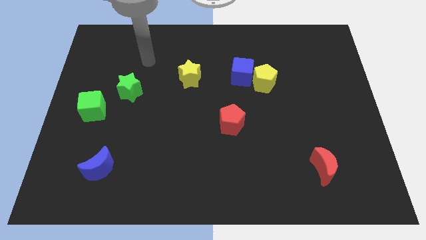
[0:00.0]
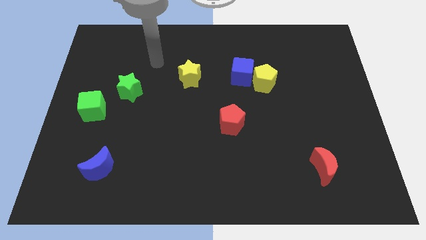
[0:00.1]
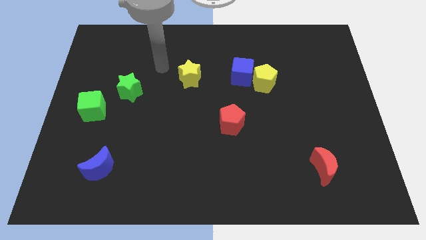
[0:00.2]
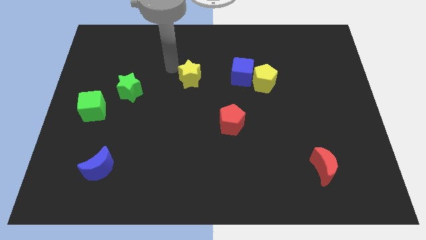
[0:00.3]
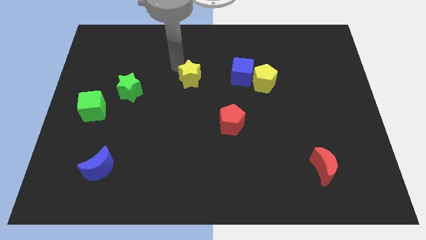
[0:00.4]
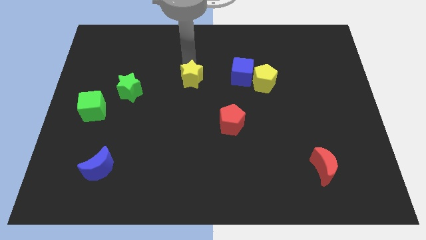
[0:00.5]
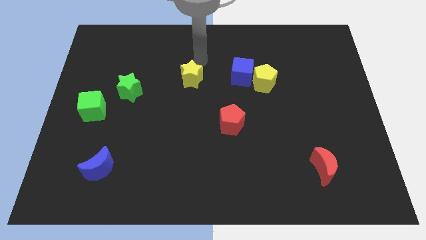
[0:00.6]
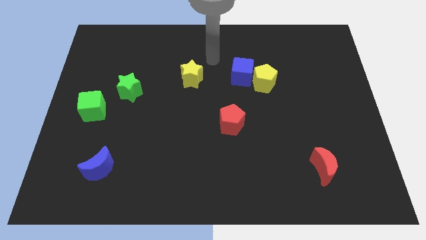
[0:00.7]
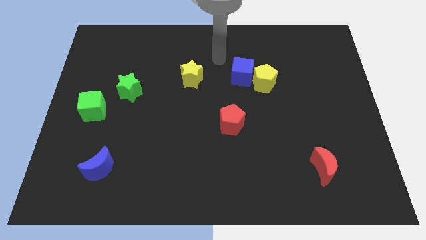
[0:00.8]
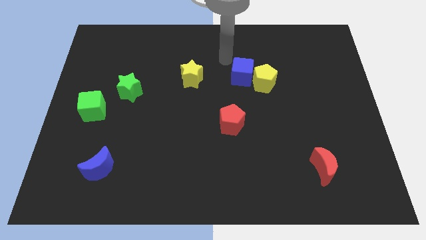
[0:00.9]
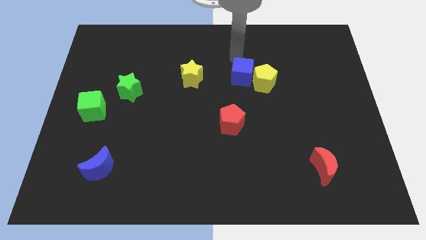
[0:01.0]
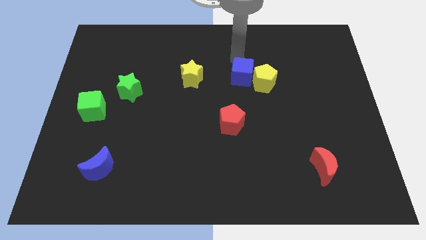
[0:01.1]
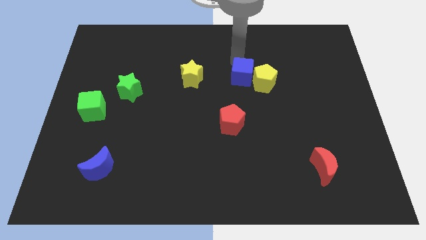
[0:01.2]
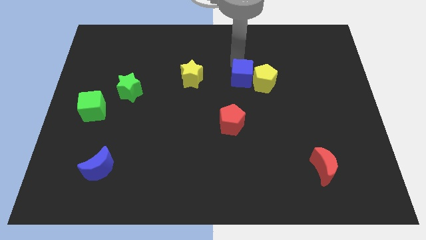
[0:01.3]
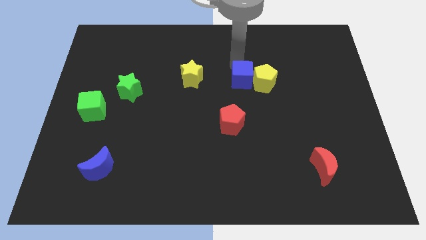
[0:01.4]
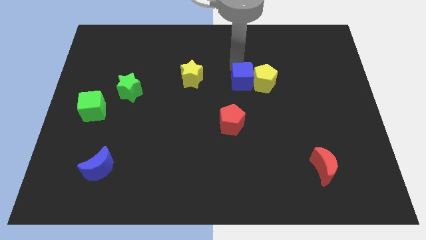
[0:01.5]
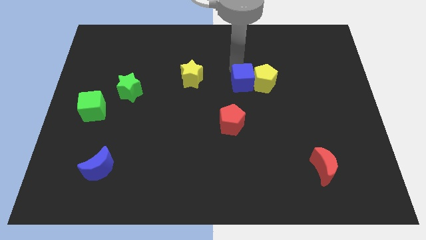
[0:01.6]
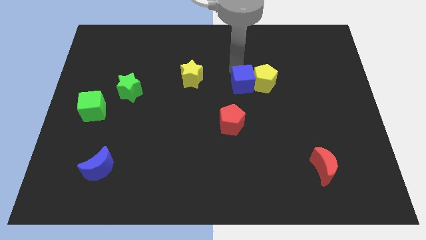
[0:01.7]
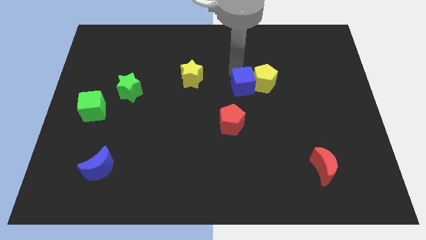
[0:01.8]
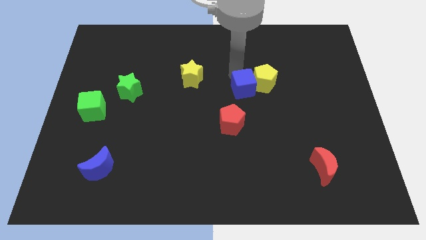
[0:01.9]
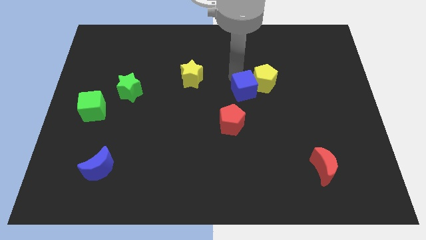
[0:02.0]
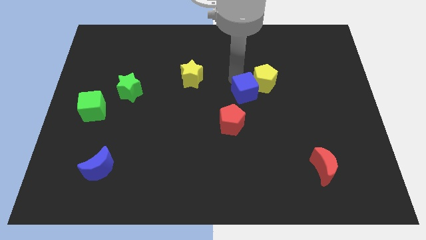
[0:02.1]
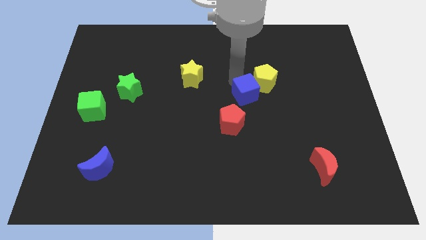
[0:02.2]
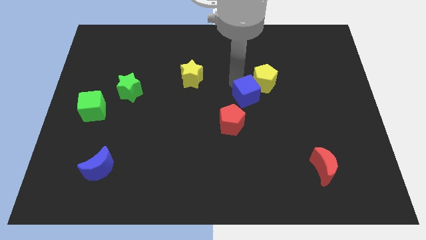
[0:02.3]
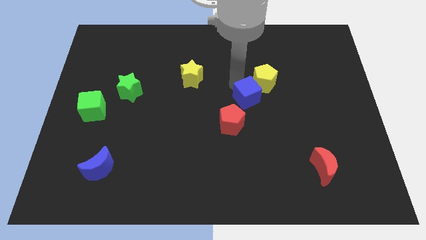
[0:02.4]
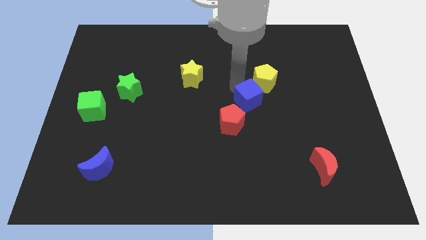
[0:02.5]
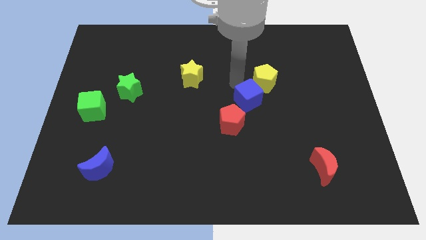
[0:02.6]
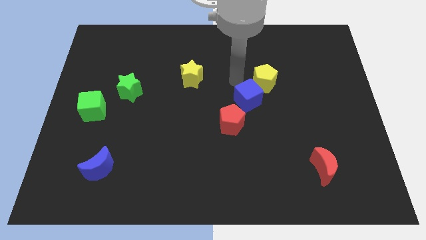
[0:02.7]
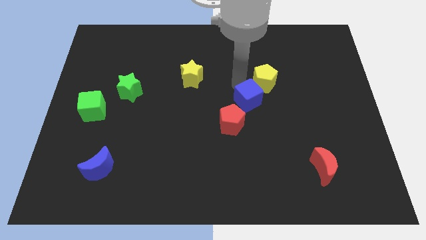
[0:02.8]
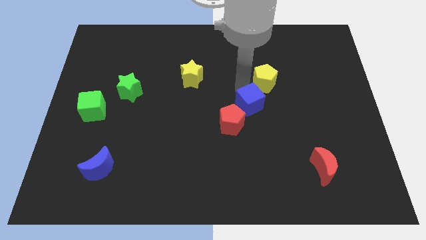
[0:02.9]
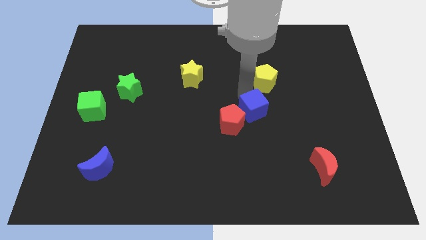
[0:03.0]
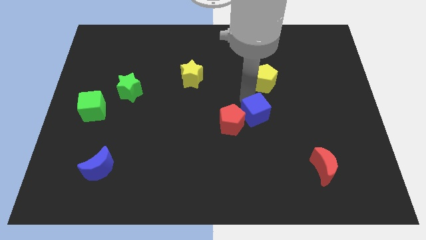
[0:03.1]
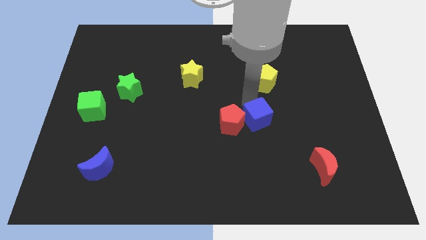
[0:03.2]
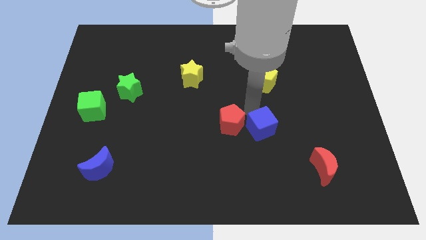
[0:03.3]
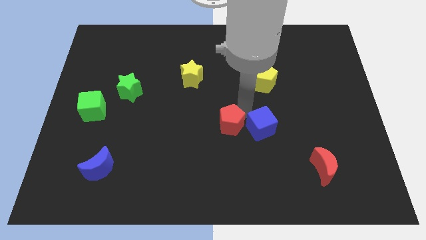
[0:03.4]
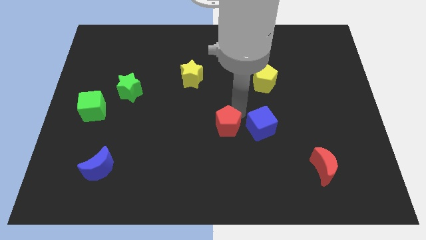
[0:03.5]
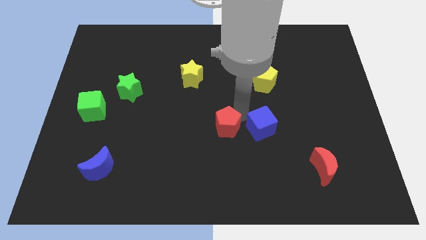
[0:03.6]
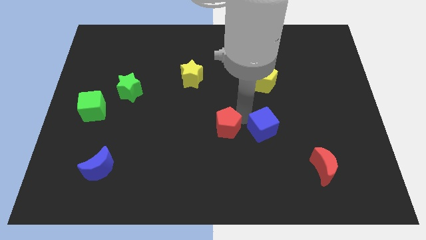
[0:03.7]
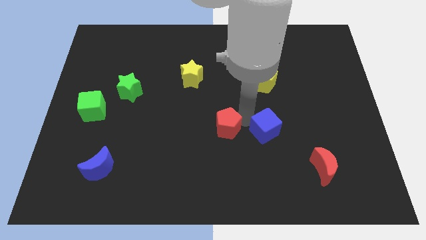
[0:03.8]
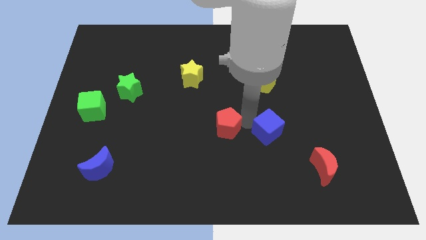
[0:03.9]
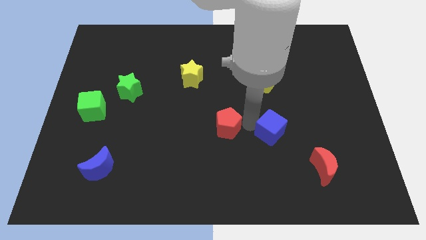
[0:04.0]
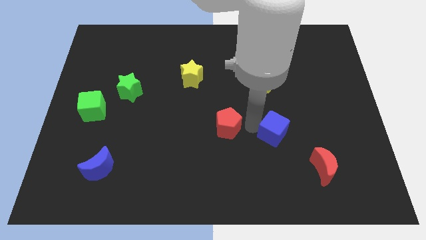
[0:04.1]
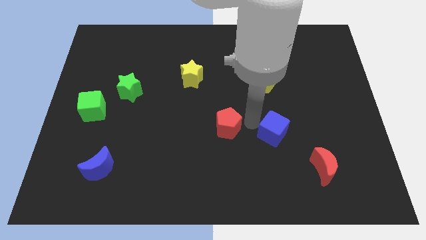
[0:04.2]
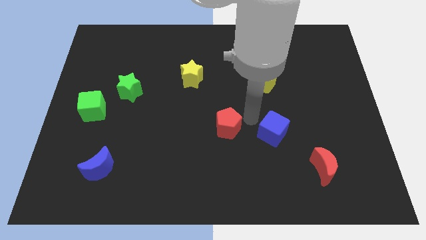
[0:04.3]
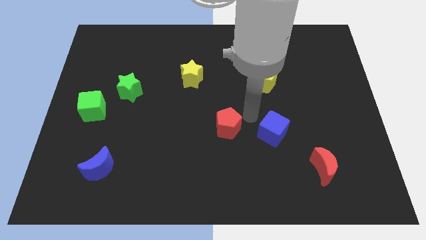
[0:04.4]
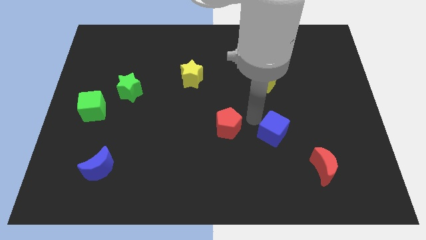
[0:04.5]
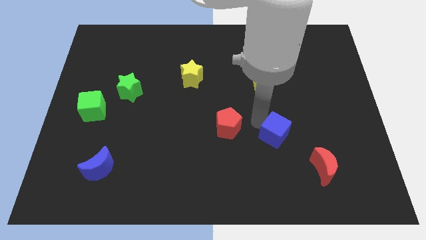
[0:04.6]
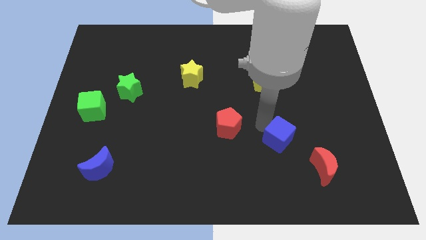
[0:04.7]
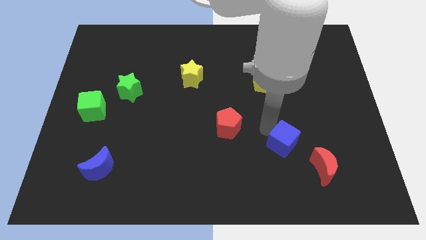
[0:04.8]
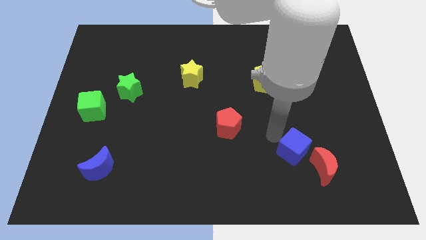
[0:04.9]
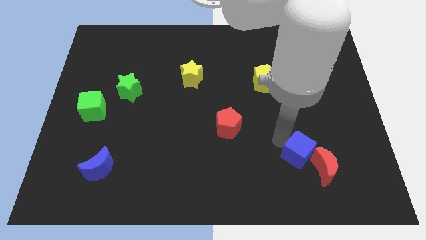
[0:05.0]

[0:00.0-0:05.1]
move the blue cube towards the red moon

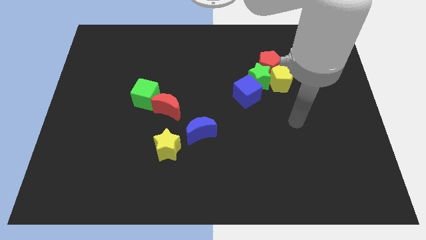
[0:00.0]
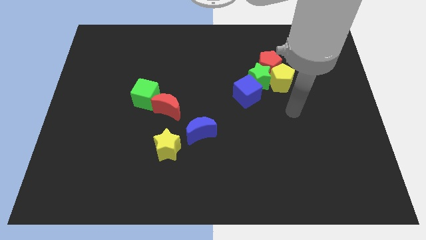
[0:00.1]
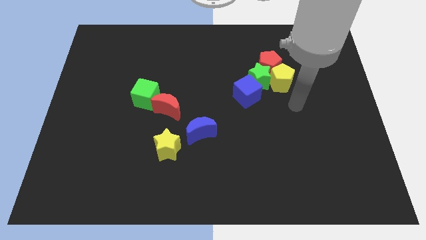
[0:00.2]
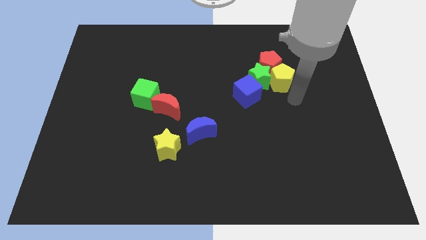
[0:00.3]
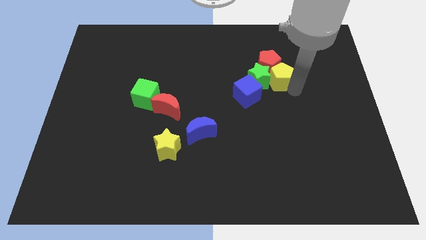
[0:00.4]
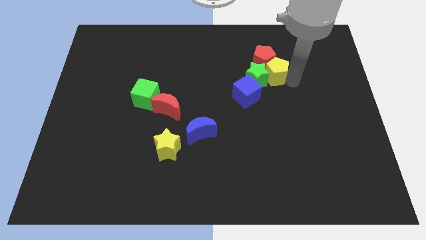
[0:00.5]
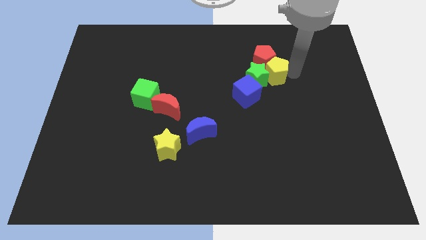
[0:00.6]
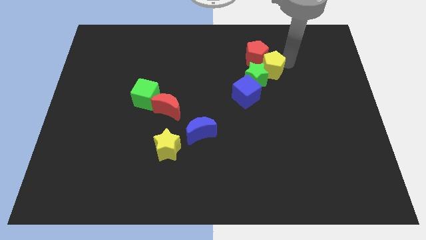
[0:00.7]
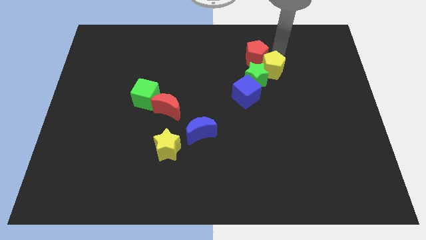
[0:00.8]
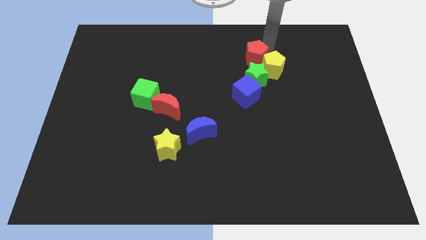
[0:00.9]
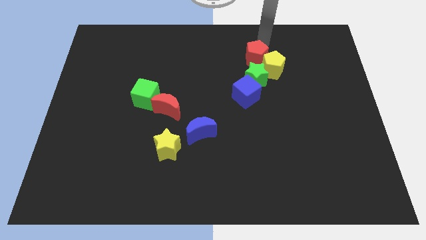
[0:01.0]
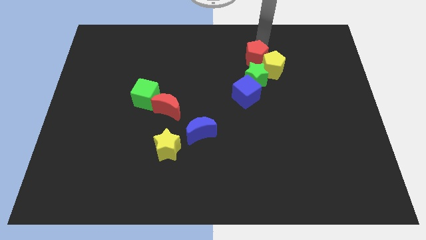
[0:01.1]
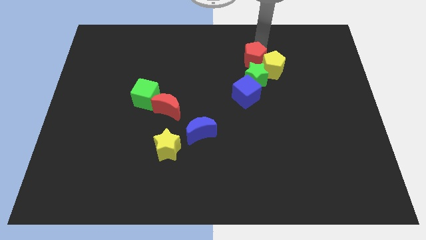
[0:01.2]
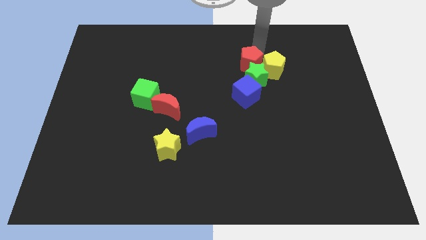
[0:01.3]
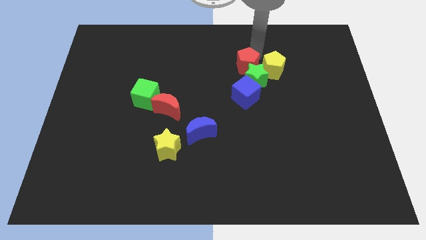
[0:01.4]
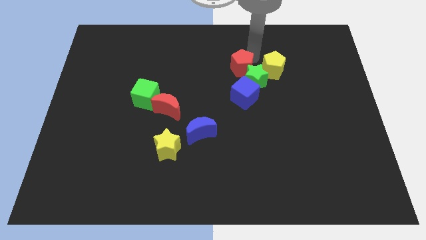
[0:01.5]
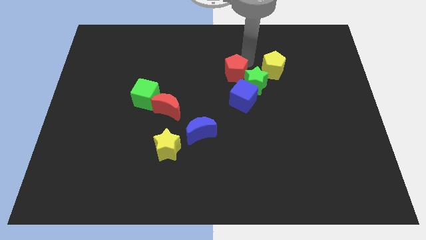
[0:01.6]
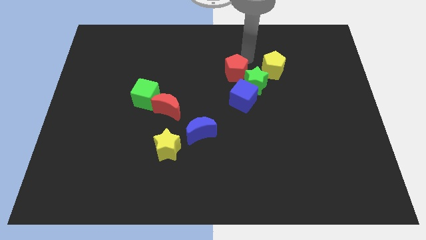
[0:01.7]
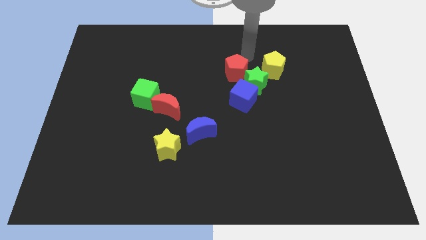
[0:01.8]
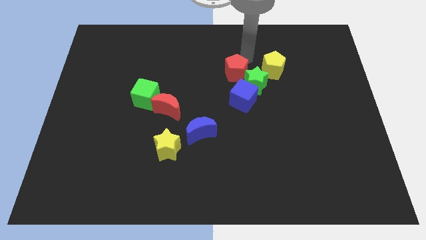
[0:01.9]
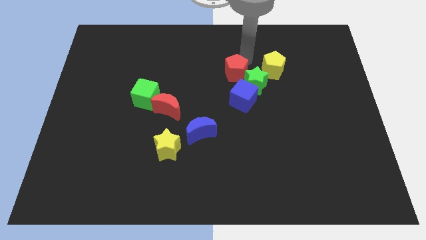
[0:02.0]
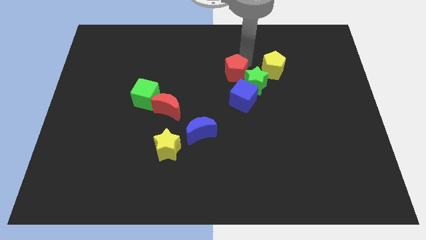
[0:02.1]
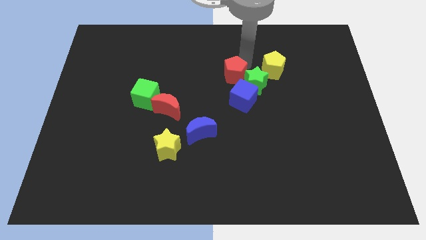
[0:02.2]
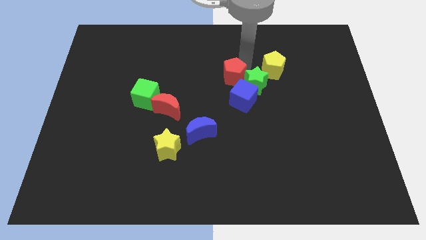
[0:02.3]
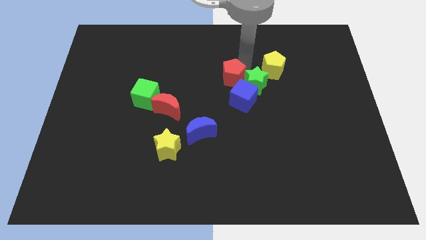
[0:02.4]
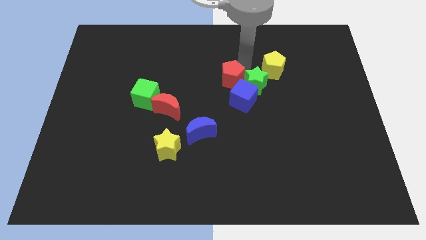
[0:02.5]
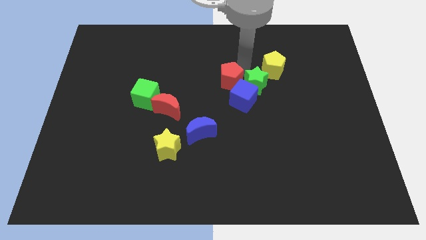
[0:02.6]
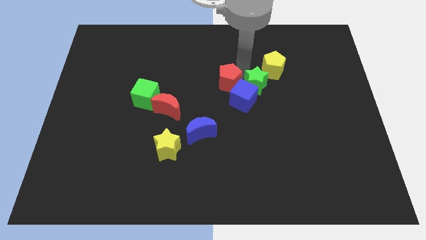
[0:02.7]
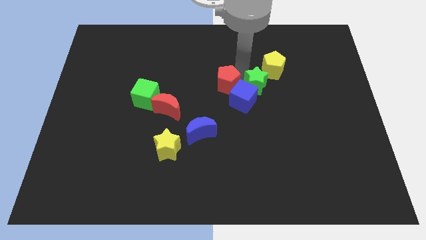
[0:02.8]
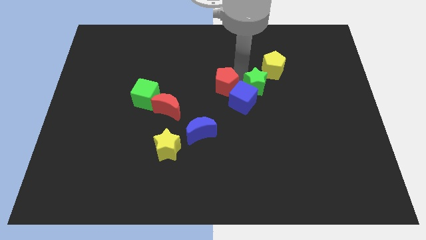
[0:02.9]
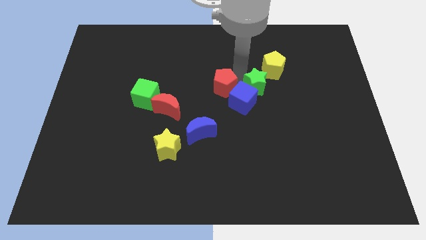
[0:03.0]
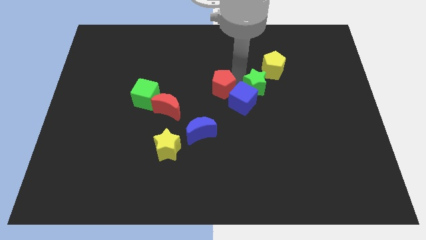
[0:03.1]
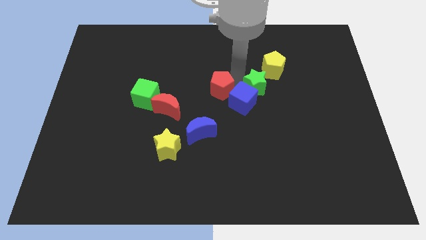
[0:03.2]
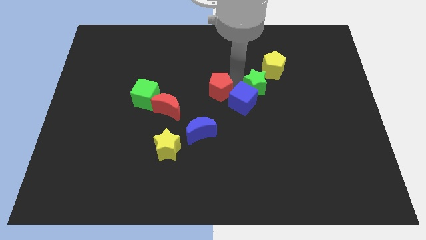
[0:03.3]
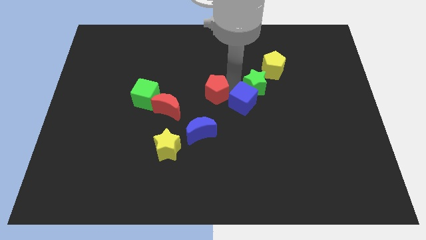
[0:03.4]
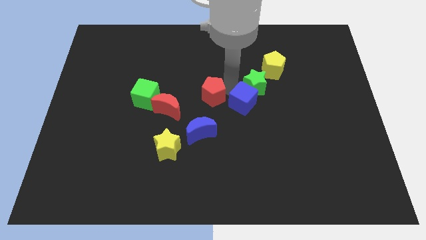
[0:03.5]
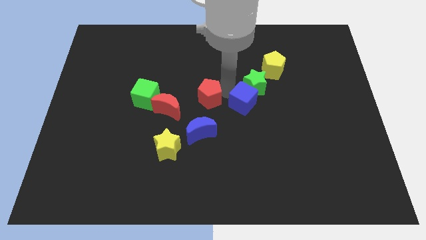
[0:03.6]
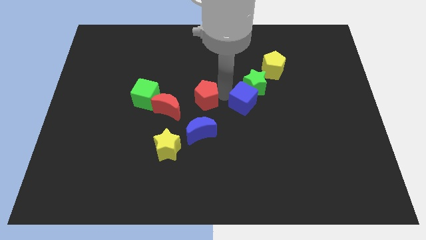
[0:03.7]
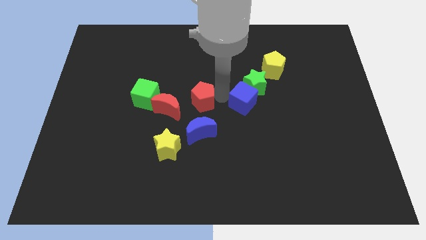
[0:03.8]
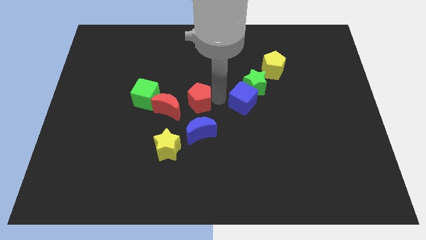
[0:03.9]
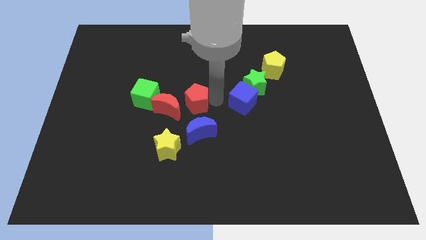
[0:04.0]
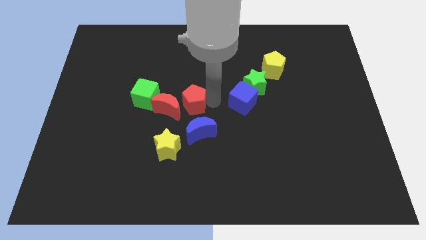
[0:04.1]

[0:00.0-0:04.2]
slide the red pentagon next to the red moon
